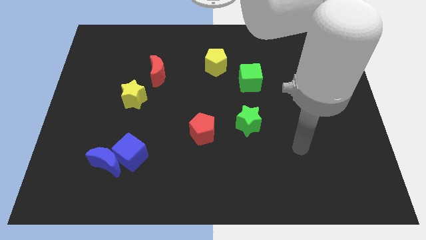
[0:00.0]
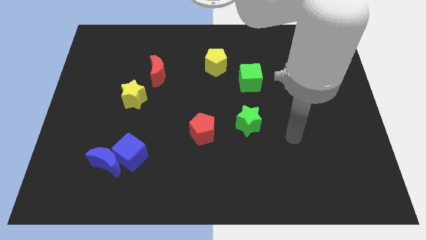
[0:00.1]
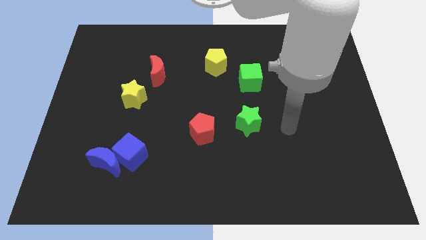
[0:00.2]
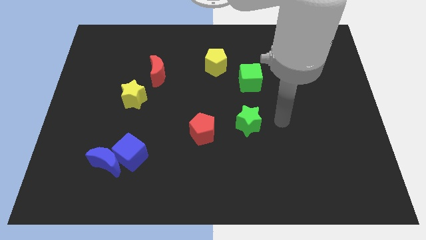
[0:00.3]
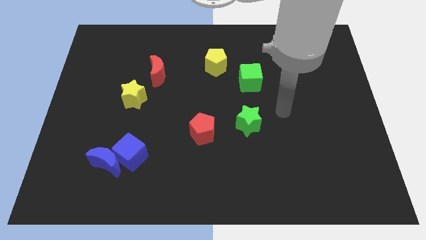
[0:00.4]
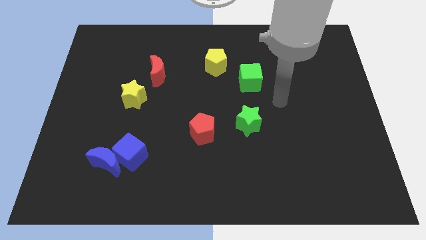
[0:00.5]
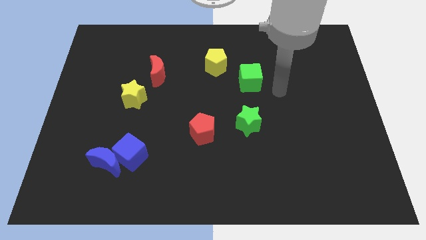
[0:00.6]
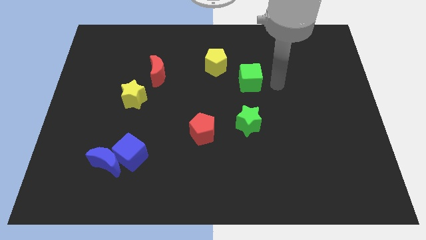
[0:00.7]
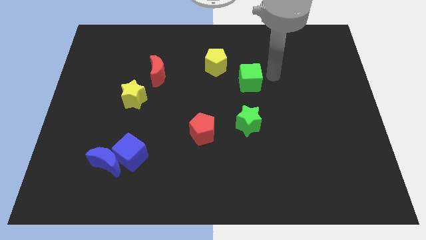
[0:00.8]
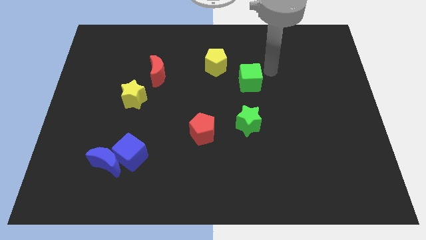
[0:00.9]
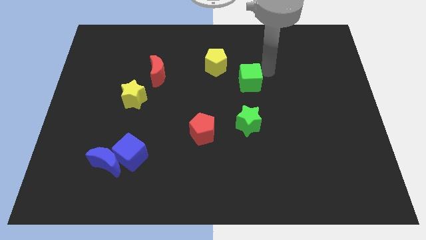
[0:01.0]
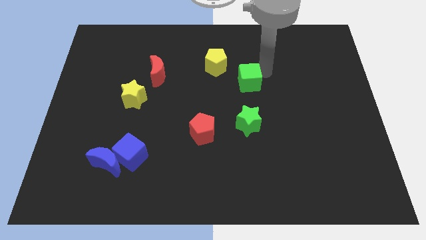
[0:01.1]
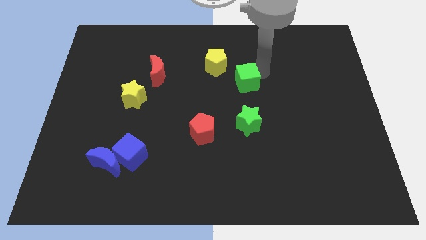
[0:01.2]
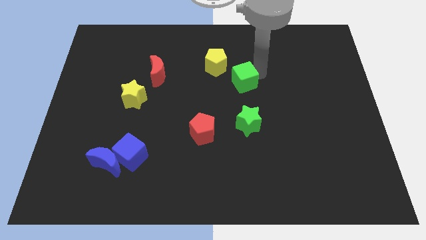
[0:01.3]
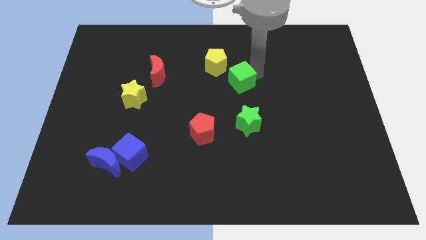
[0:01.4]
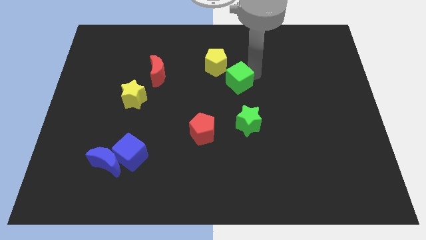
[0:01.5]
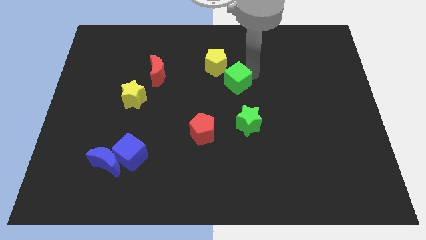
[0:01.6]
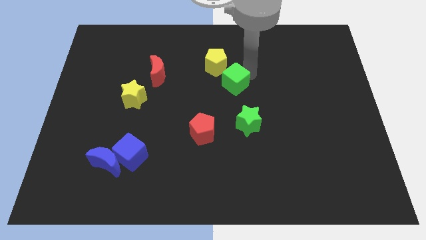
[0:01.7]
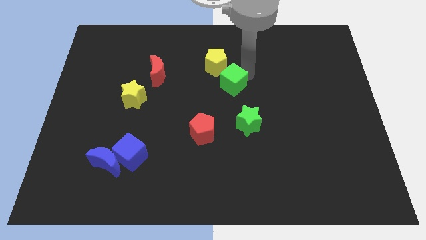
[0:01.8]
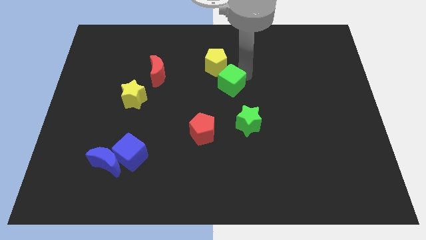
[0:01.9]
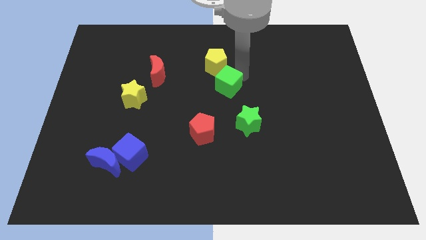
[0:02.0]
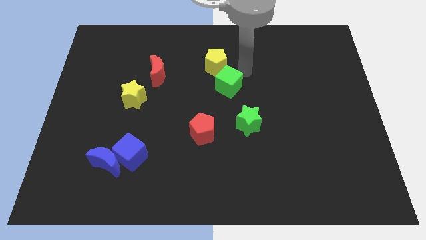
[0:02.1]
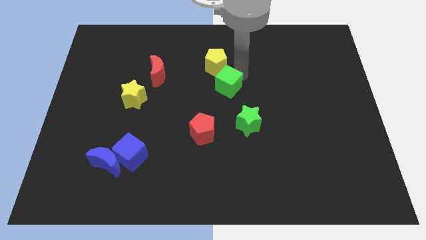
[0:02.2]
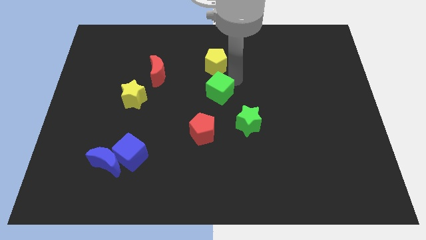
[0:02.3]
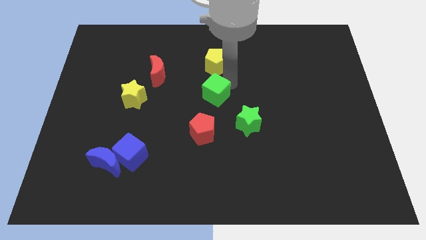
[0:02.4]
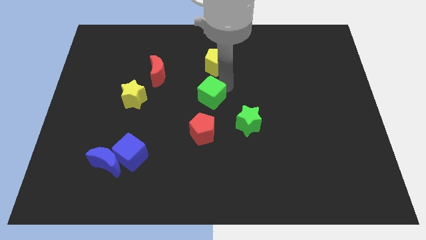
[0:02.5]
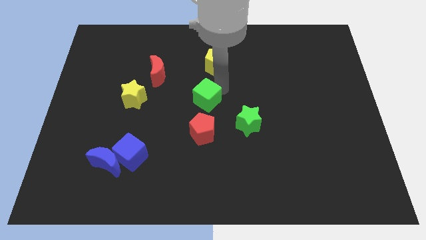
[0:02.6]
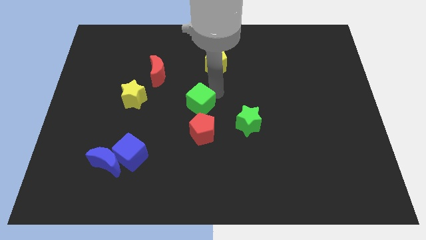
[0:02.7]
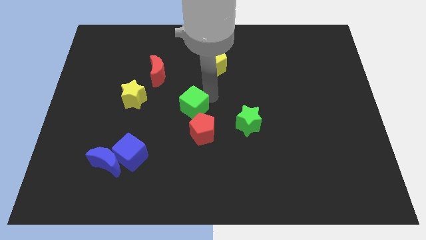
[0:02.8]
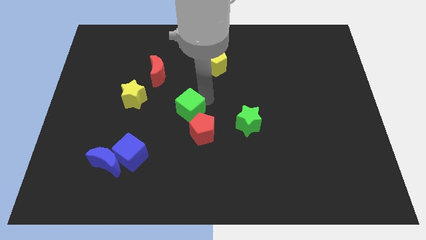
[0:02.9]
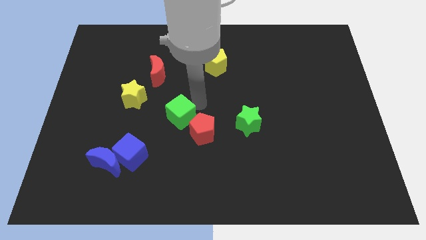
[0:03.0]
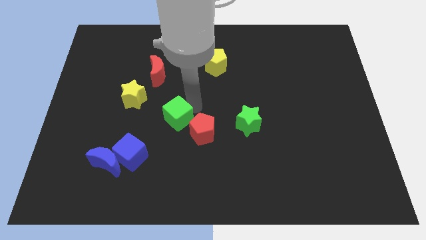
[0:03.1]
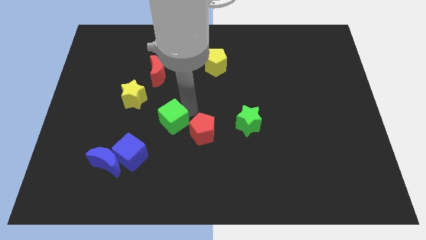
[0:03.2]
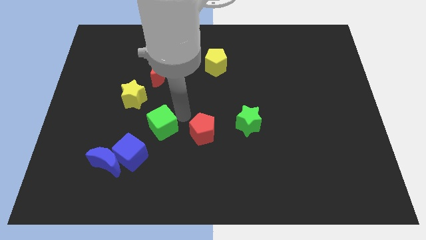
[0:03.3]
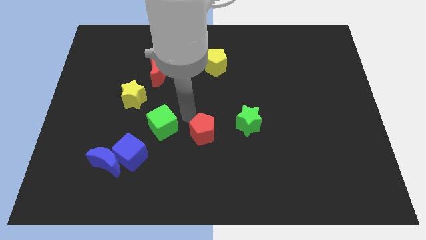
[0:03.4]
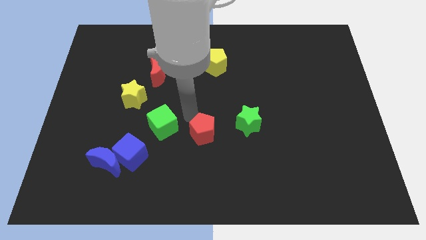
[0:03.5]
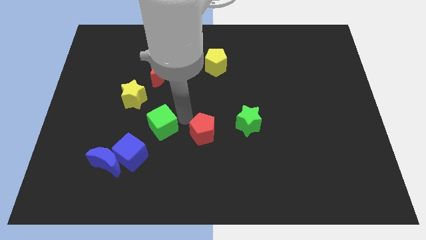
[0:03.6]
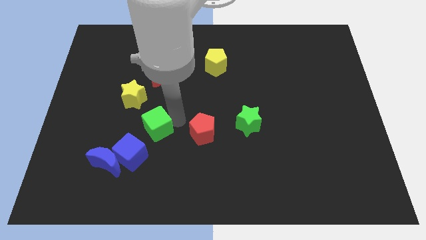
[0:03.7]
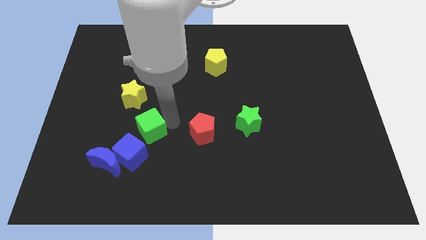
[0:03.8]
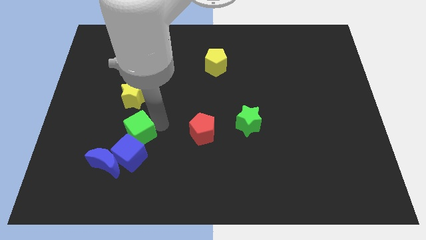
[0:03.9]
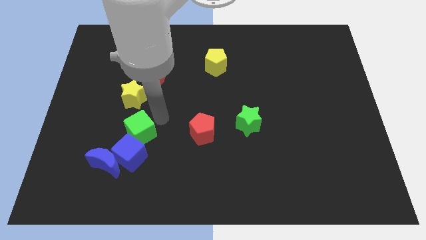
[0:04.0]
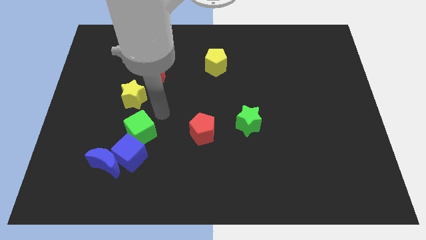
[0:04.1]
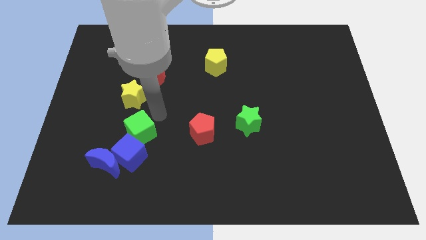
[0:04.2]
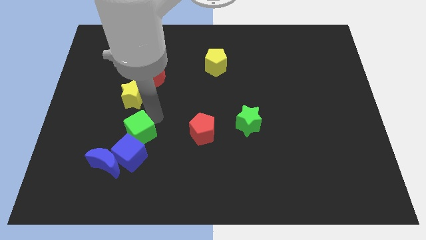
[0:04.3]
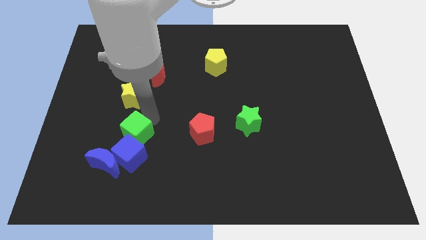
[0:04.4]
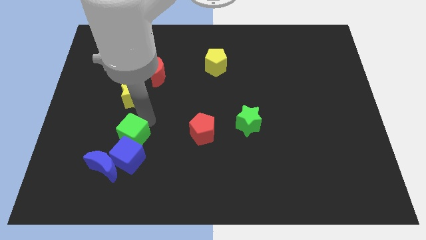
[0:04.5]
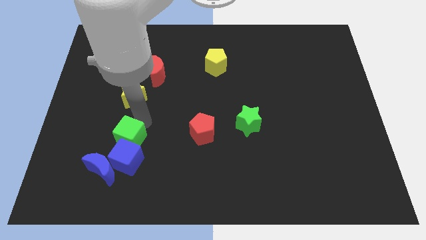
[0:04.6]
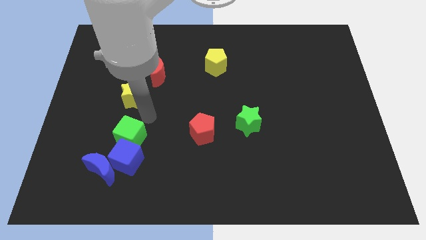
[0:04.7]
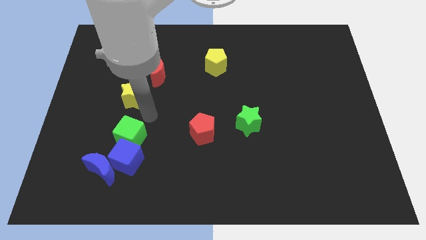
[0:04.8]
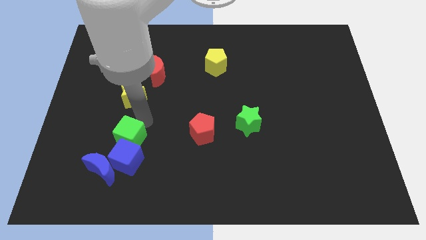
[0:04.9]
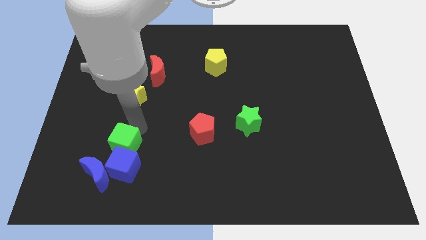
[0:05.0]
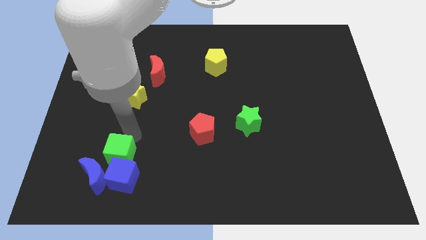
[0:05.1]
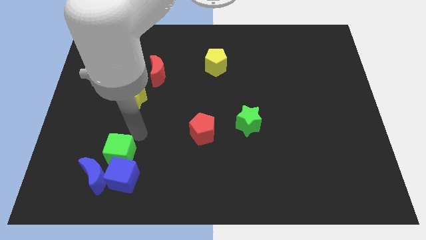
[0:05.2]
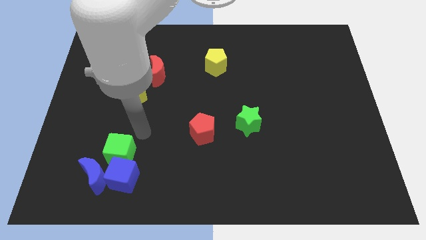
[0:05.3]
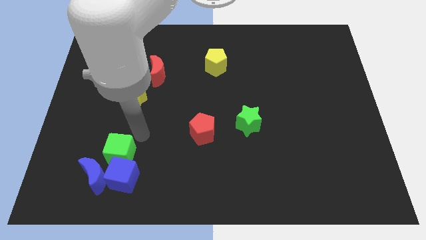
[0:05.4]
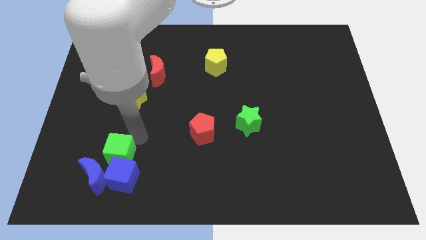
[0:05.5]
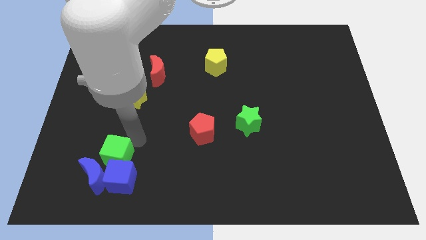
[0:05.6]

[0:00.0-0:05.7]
push the green cube next to the blue moon

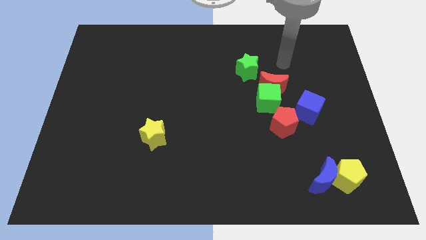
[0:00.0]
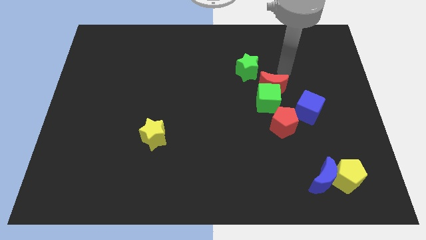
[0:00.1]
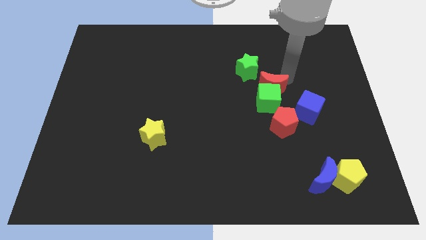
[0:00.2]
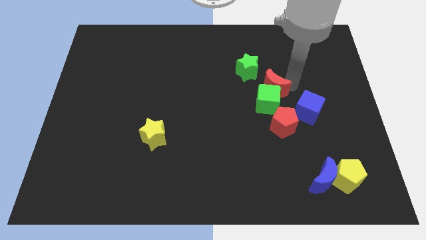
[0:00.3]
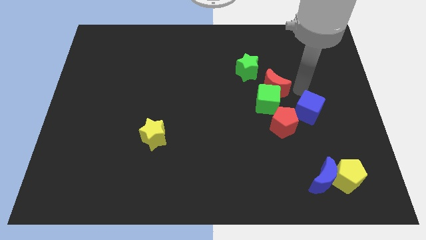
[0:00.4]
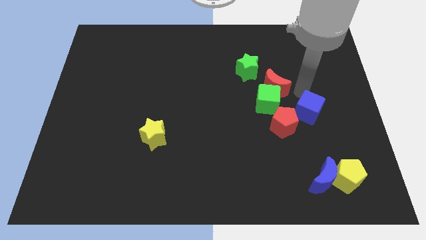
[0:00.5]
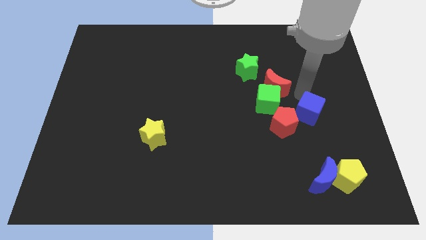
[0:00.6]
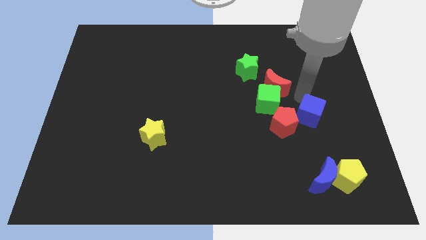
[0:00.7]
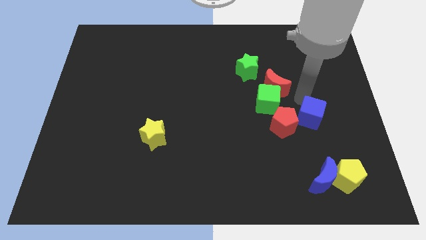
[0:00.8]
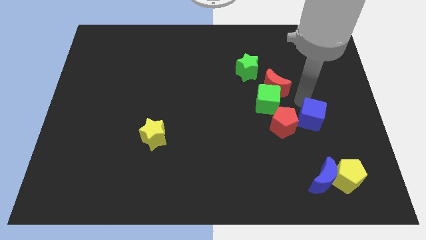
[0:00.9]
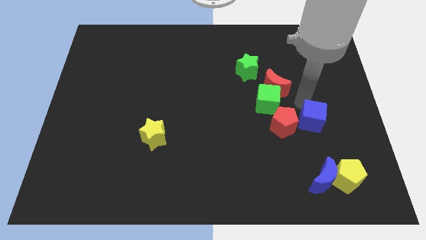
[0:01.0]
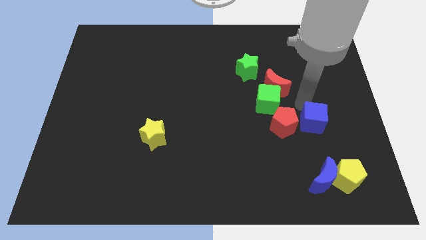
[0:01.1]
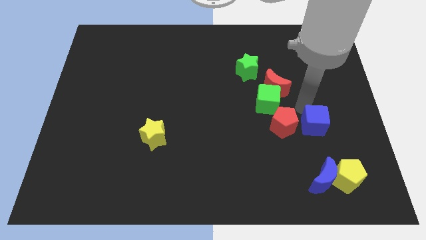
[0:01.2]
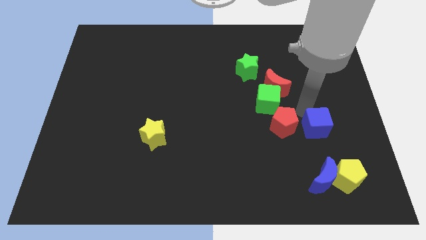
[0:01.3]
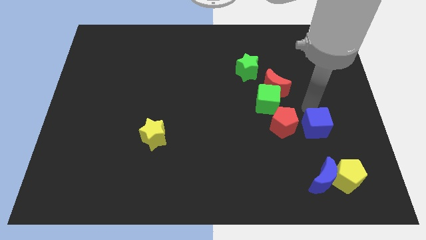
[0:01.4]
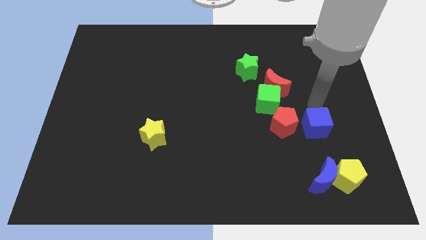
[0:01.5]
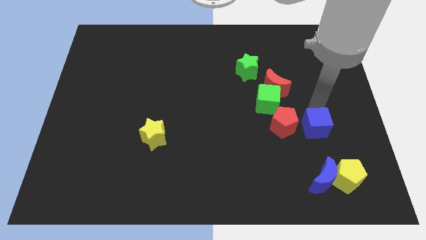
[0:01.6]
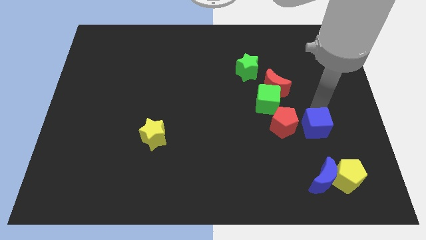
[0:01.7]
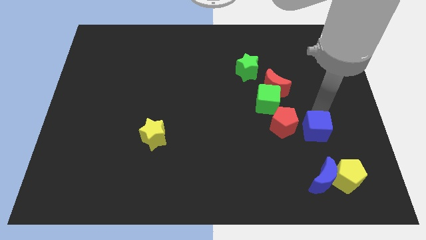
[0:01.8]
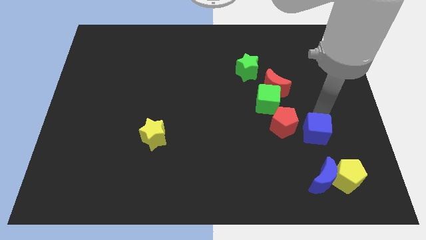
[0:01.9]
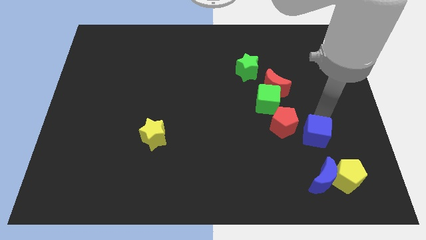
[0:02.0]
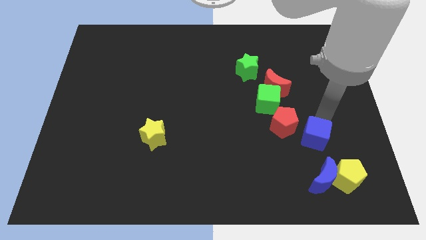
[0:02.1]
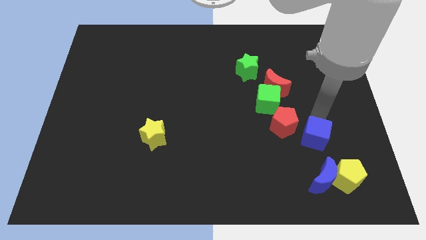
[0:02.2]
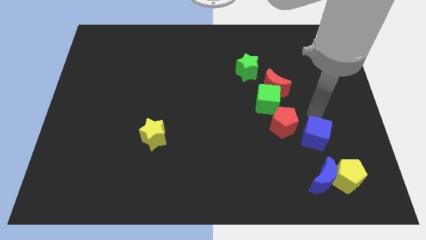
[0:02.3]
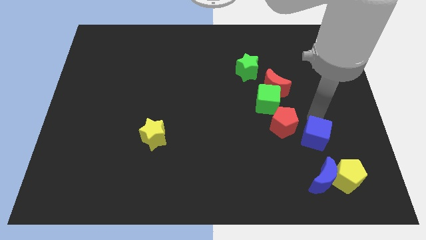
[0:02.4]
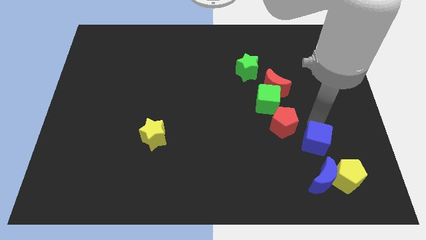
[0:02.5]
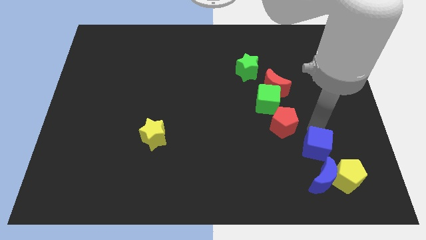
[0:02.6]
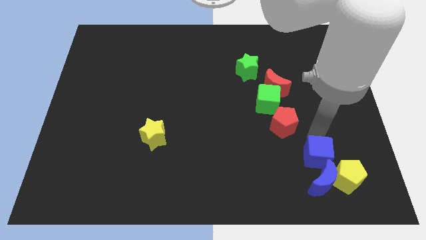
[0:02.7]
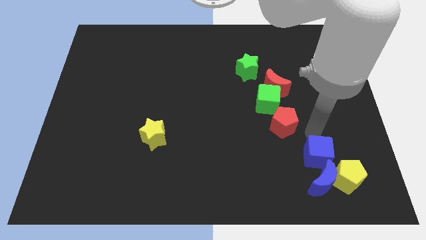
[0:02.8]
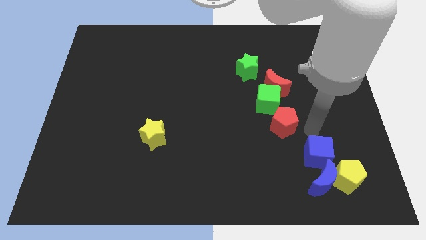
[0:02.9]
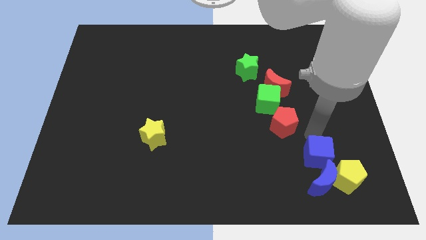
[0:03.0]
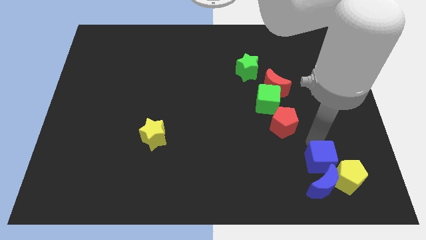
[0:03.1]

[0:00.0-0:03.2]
move the blue cube next to the blue moon
